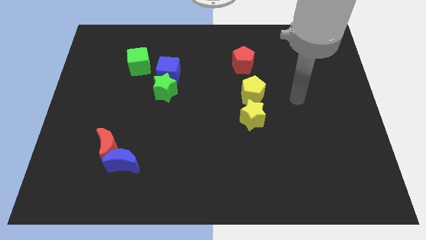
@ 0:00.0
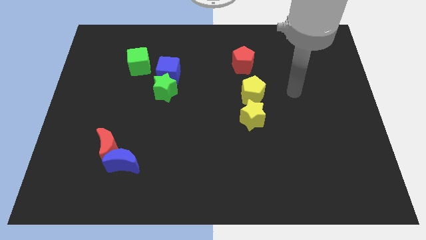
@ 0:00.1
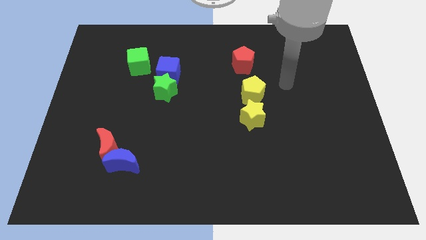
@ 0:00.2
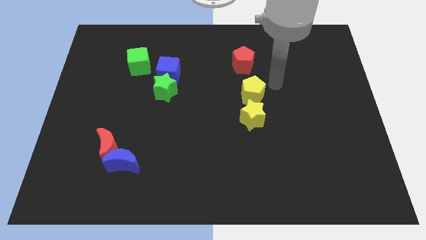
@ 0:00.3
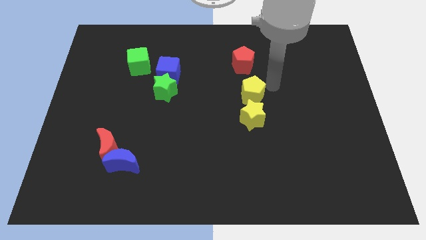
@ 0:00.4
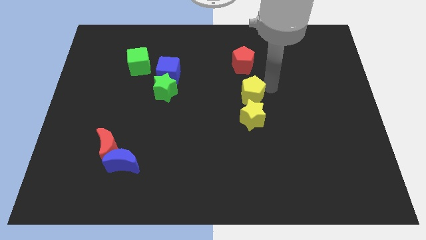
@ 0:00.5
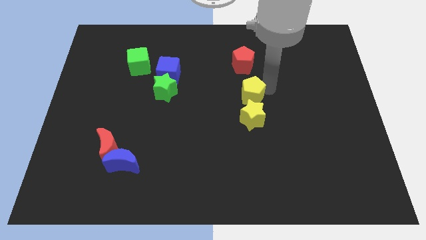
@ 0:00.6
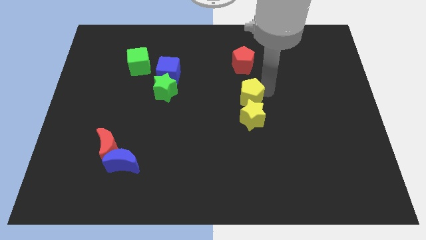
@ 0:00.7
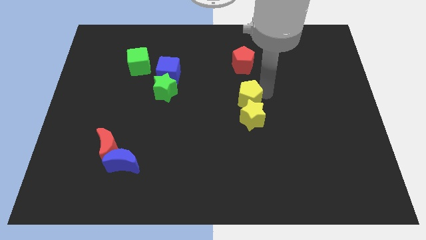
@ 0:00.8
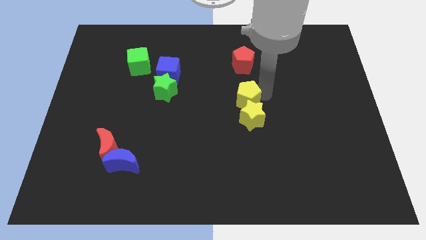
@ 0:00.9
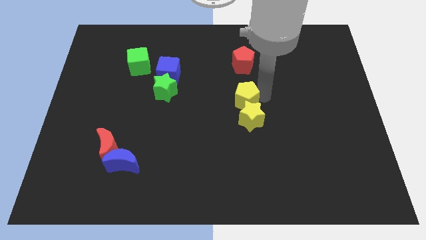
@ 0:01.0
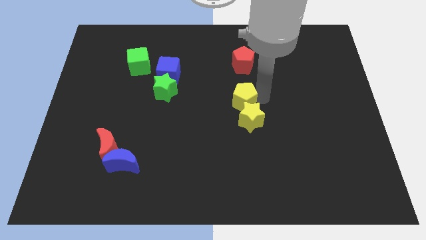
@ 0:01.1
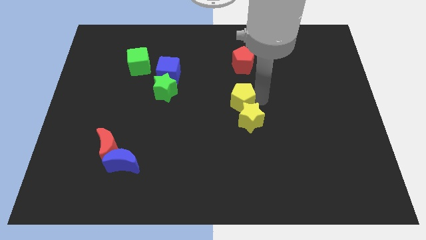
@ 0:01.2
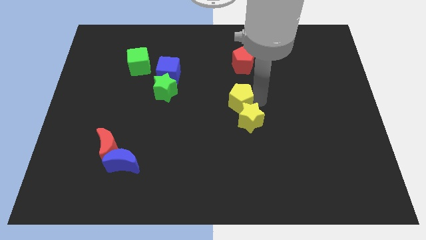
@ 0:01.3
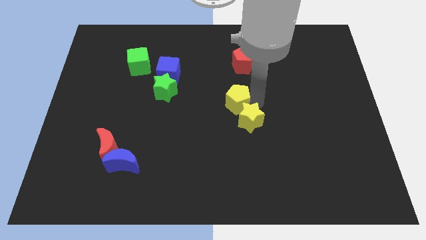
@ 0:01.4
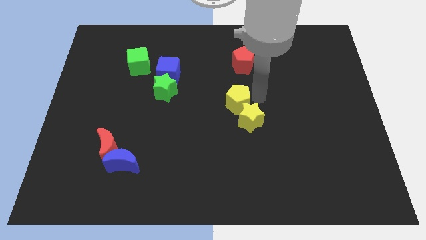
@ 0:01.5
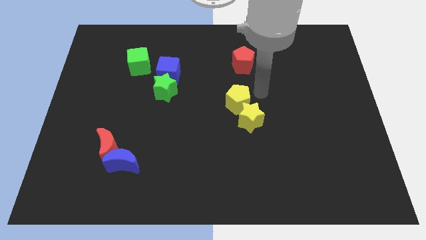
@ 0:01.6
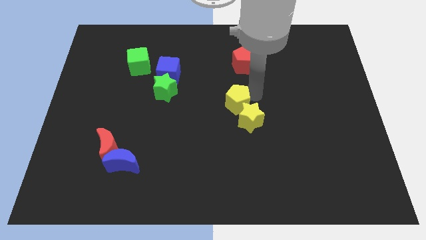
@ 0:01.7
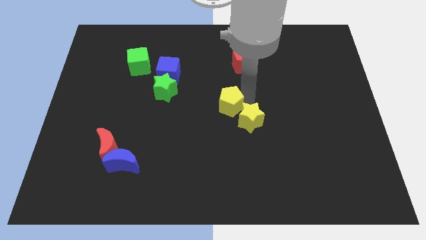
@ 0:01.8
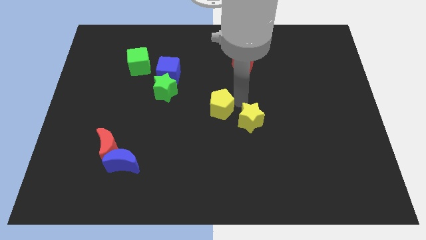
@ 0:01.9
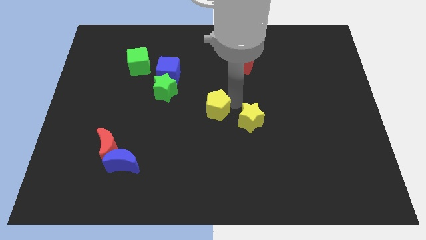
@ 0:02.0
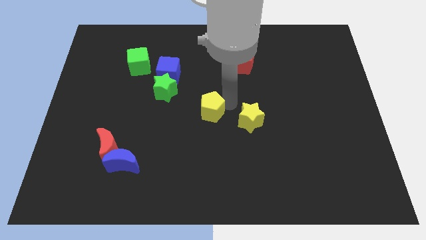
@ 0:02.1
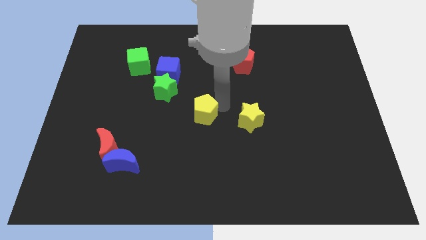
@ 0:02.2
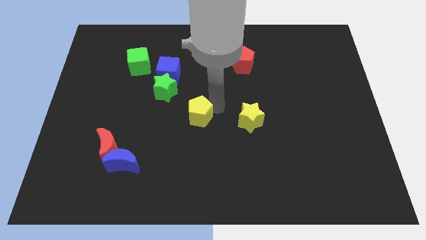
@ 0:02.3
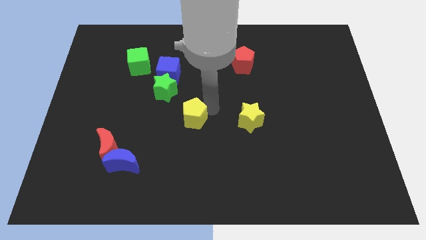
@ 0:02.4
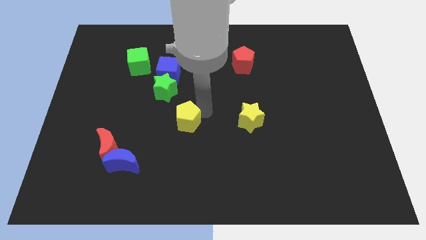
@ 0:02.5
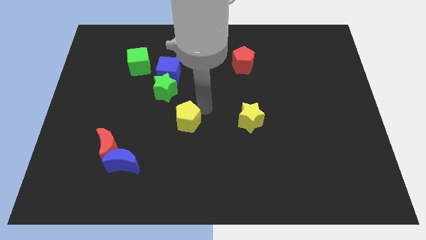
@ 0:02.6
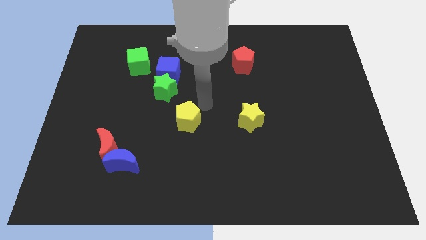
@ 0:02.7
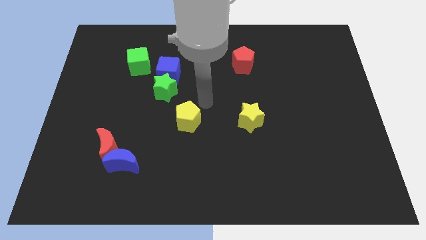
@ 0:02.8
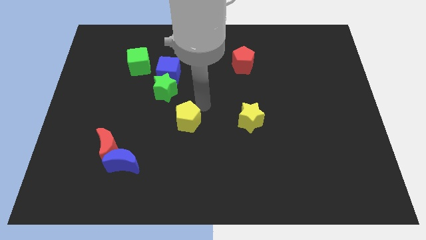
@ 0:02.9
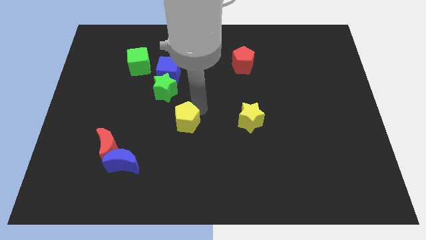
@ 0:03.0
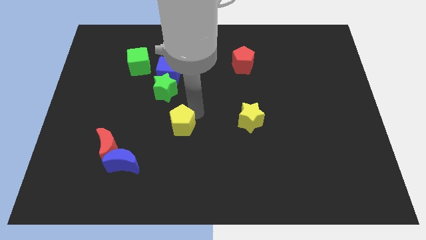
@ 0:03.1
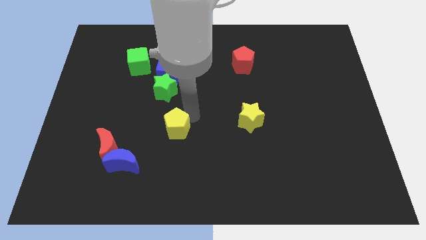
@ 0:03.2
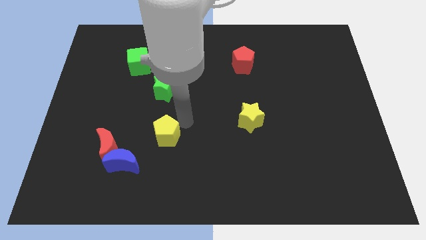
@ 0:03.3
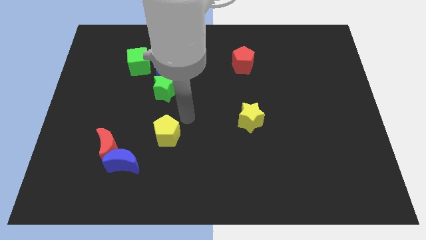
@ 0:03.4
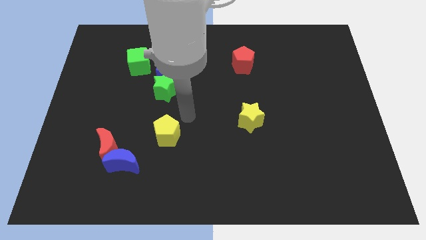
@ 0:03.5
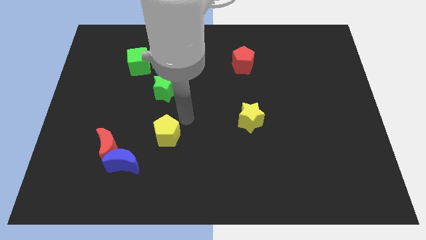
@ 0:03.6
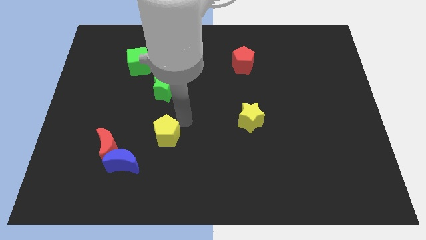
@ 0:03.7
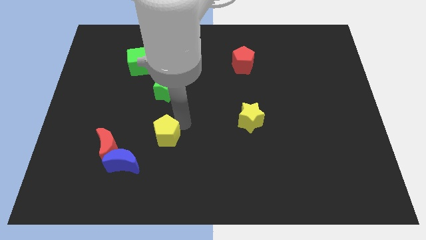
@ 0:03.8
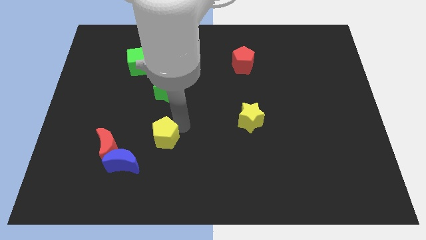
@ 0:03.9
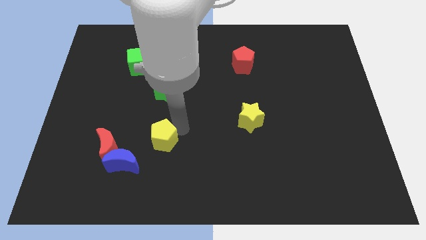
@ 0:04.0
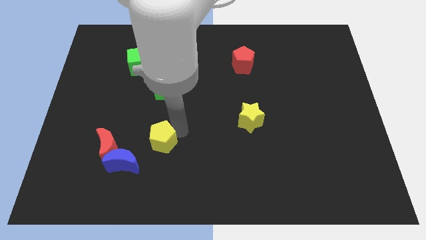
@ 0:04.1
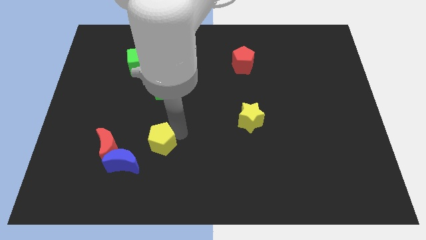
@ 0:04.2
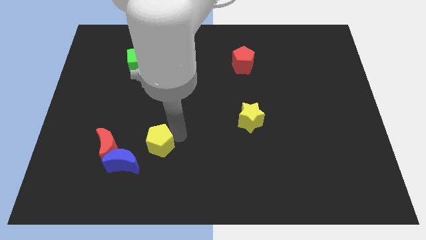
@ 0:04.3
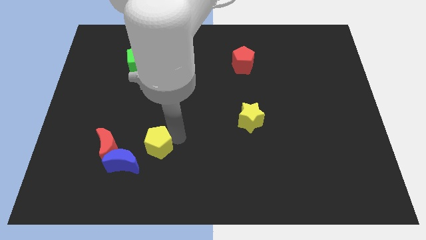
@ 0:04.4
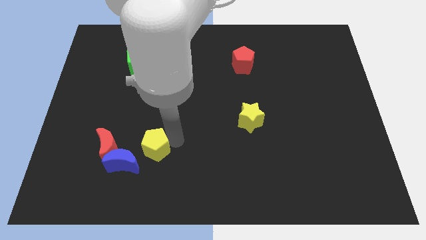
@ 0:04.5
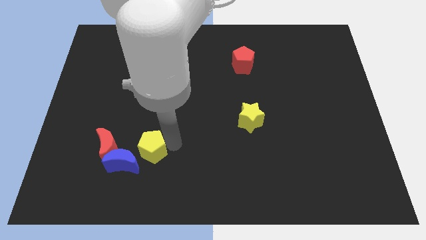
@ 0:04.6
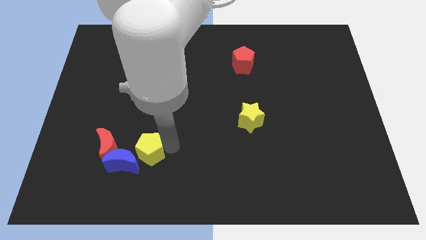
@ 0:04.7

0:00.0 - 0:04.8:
push the yellow pentagon close to the blue moon

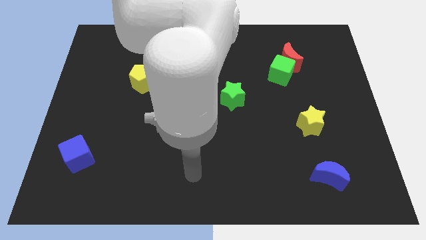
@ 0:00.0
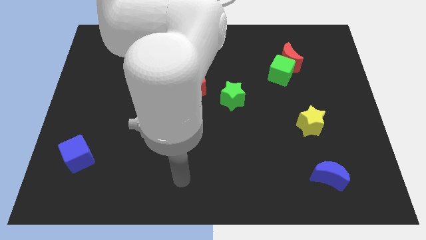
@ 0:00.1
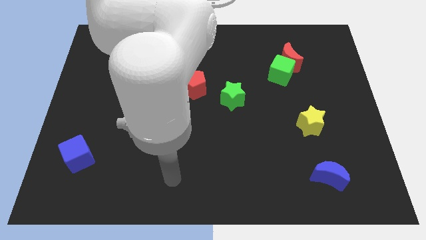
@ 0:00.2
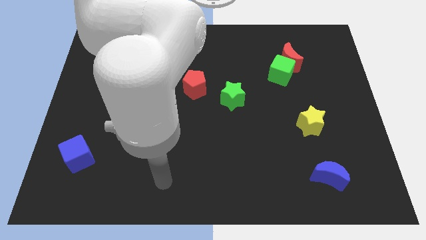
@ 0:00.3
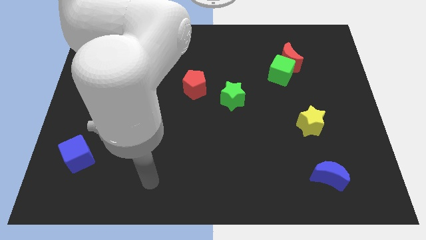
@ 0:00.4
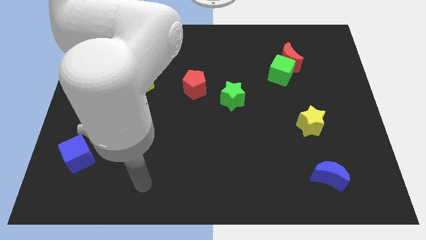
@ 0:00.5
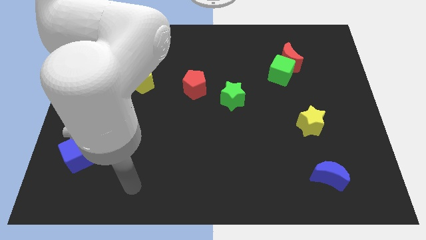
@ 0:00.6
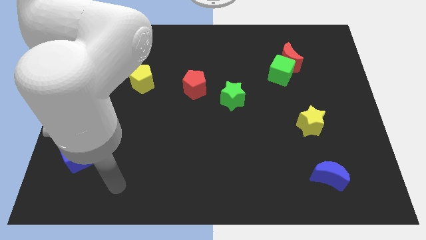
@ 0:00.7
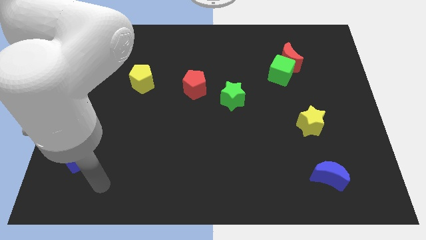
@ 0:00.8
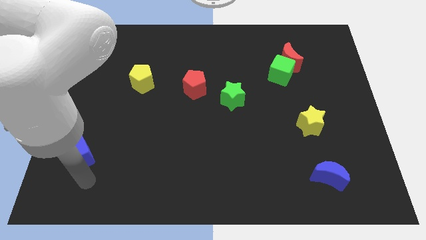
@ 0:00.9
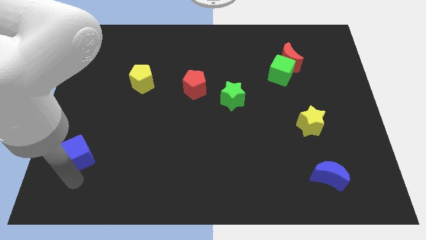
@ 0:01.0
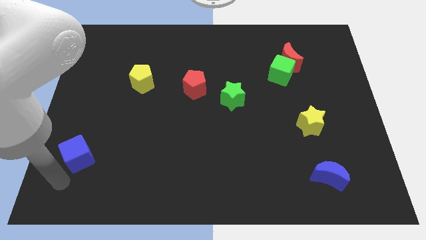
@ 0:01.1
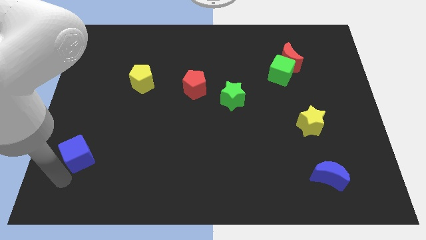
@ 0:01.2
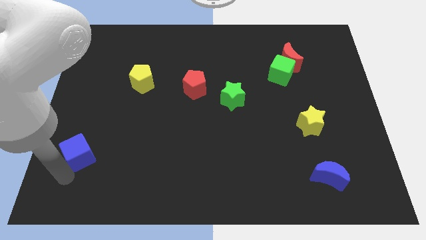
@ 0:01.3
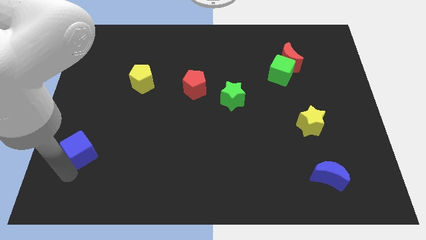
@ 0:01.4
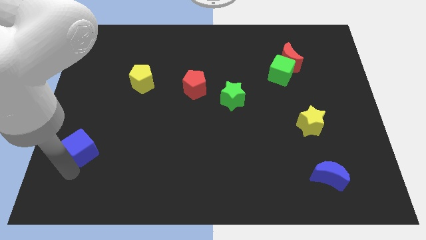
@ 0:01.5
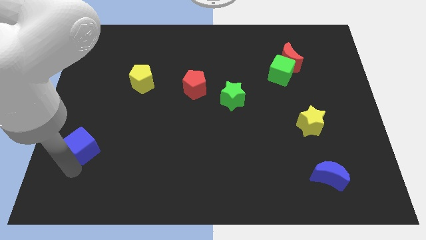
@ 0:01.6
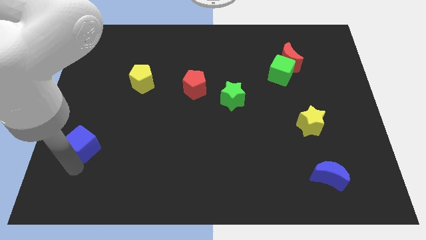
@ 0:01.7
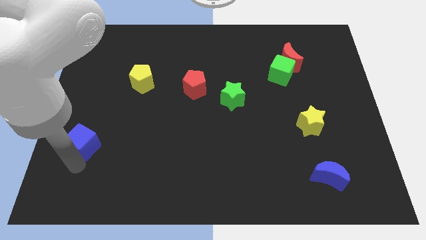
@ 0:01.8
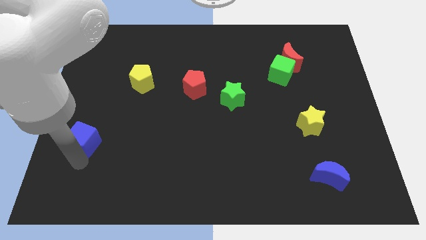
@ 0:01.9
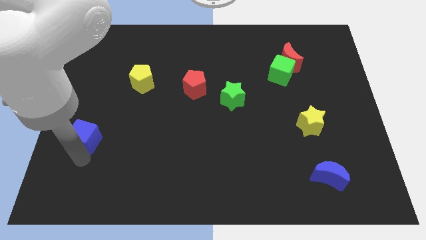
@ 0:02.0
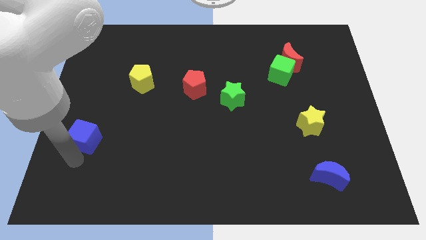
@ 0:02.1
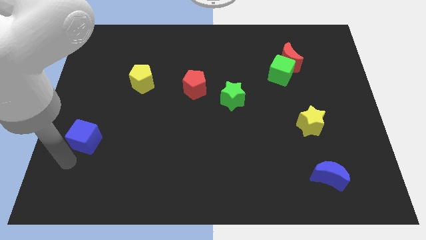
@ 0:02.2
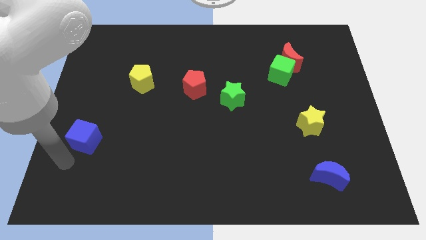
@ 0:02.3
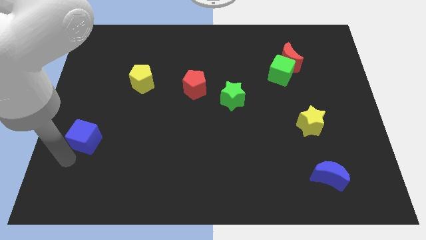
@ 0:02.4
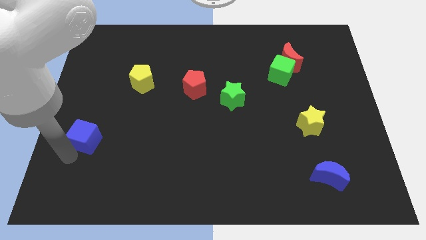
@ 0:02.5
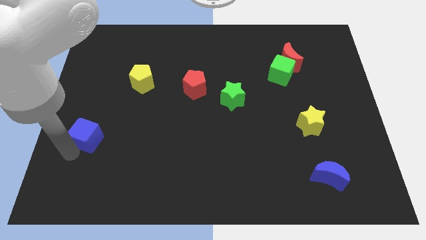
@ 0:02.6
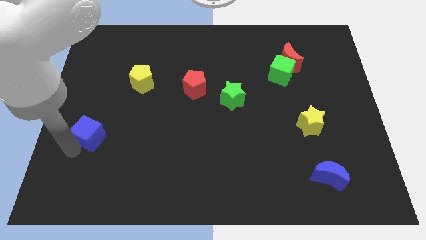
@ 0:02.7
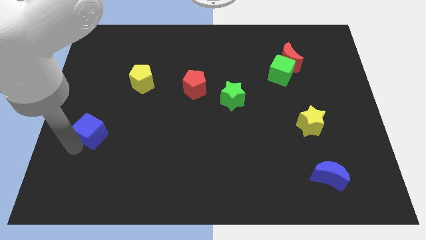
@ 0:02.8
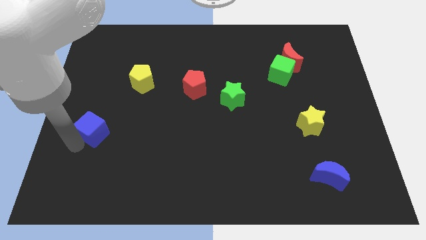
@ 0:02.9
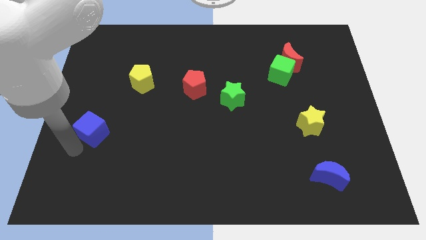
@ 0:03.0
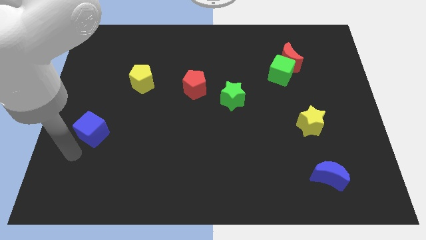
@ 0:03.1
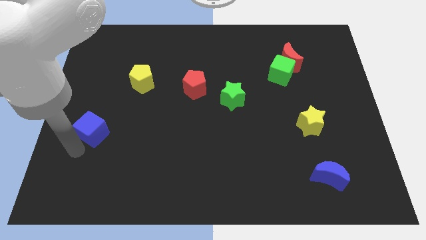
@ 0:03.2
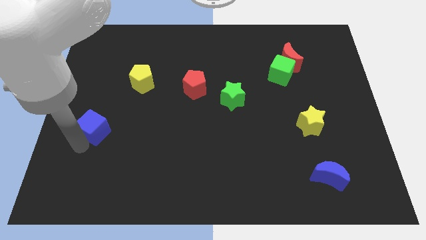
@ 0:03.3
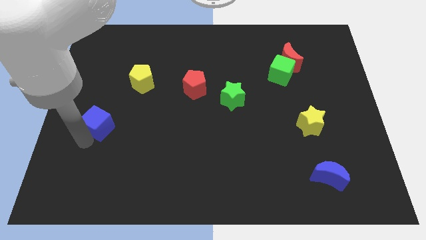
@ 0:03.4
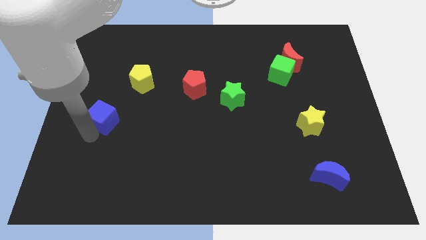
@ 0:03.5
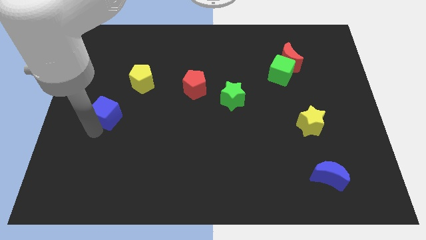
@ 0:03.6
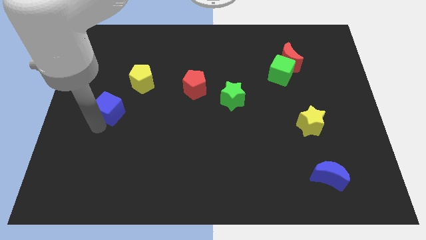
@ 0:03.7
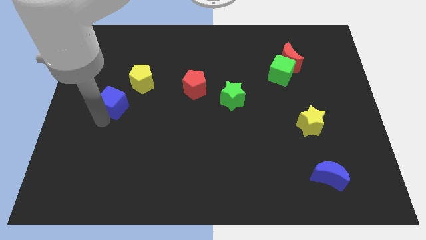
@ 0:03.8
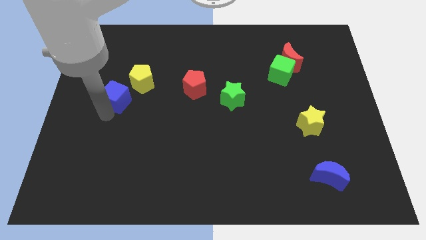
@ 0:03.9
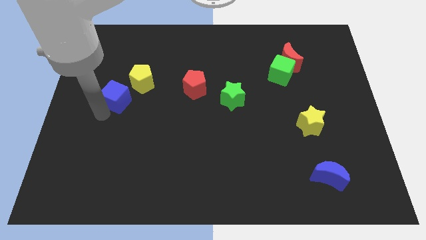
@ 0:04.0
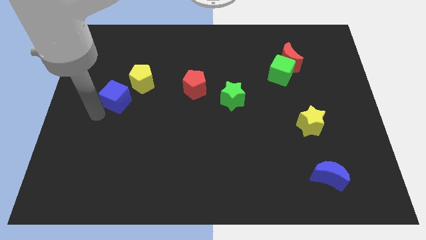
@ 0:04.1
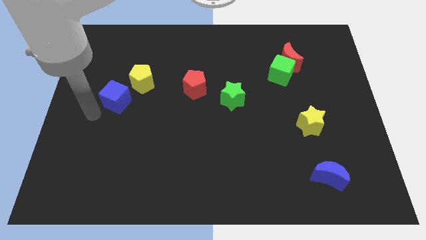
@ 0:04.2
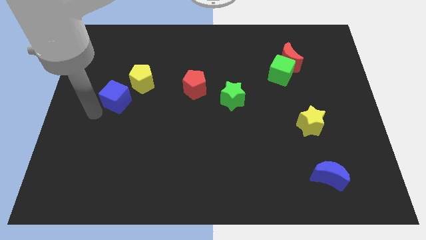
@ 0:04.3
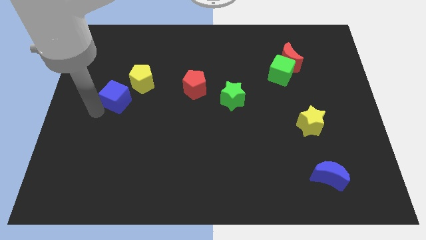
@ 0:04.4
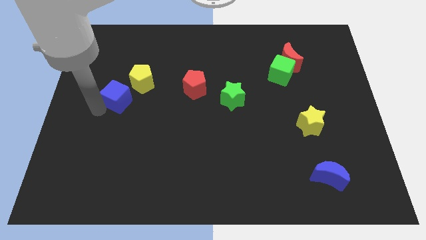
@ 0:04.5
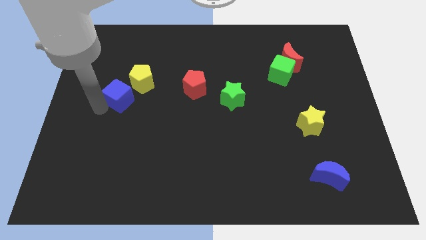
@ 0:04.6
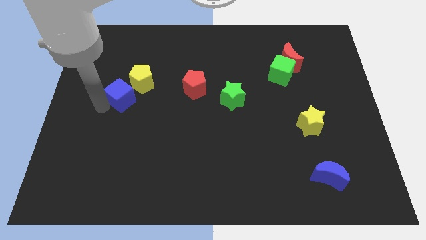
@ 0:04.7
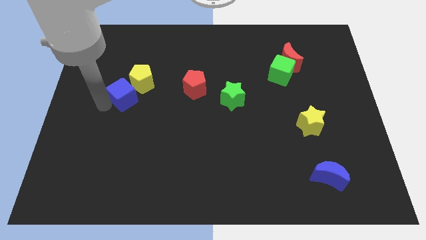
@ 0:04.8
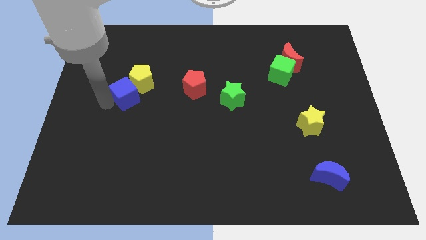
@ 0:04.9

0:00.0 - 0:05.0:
move the blue cube next to the yellow pentagon
